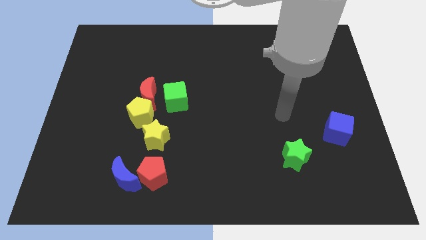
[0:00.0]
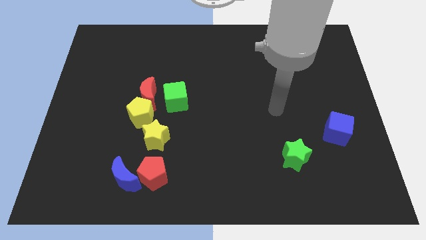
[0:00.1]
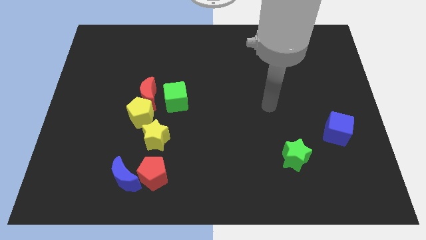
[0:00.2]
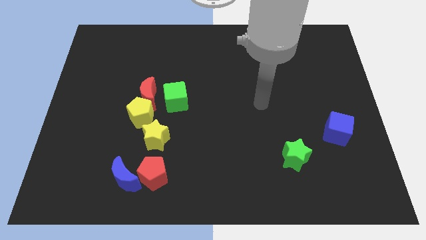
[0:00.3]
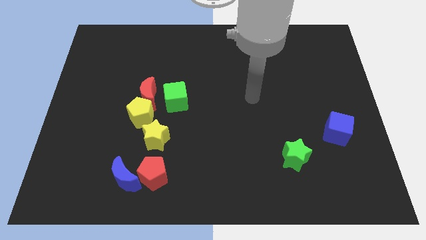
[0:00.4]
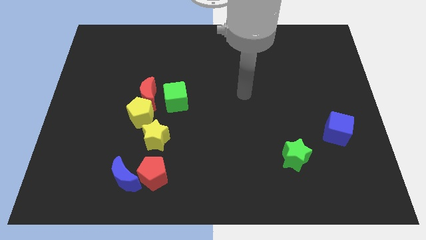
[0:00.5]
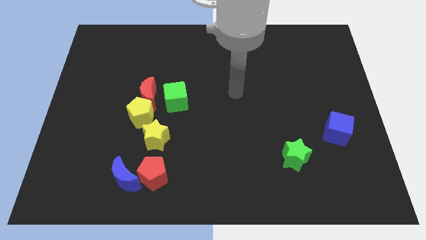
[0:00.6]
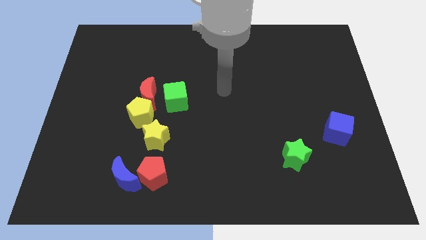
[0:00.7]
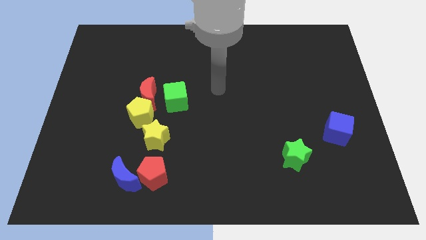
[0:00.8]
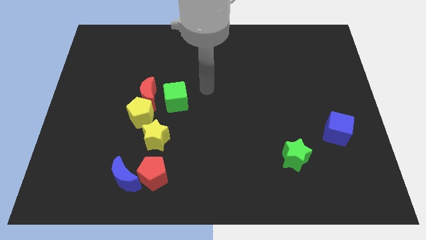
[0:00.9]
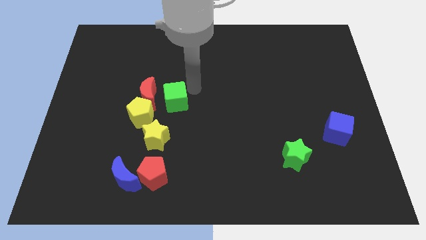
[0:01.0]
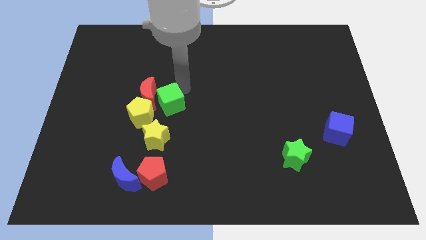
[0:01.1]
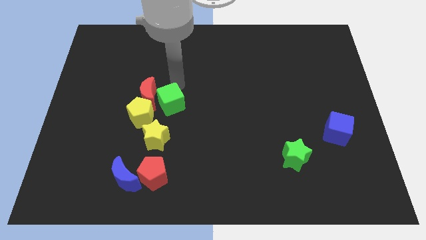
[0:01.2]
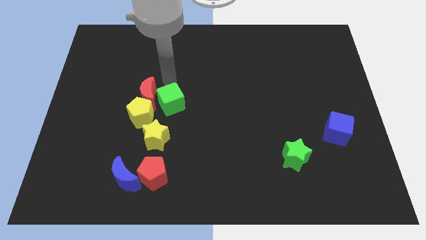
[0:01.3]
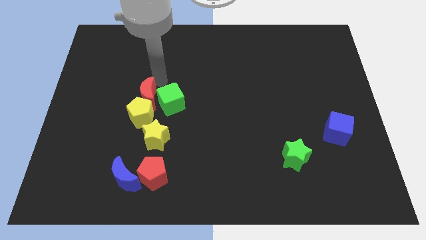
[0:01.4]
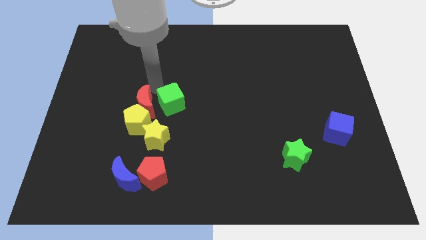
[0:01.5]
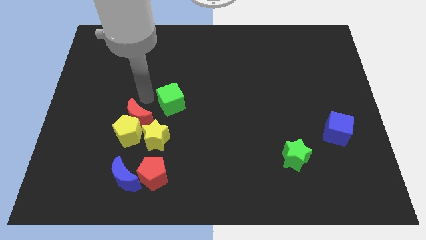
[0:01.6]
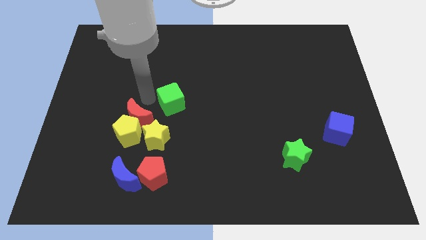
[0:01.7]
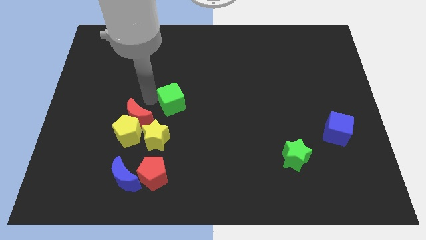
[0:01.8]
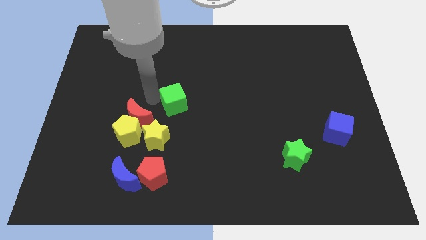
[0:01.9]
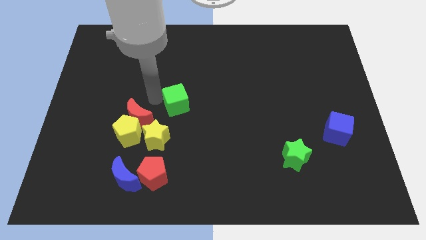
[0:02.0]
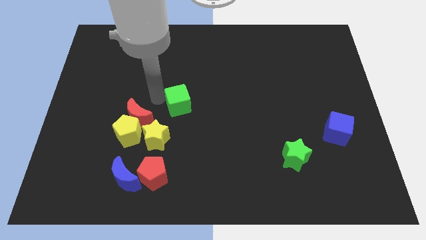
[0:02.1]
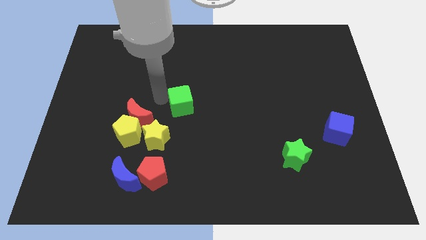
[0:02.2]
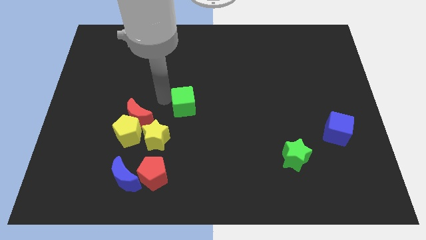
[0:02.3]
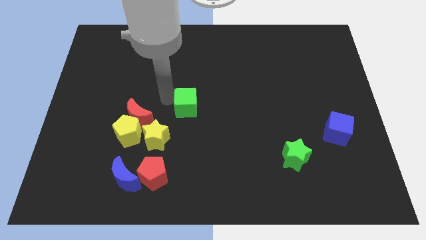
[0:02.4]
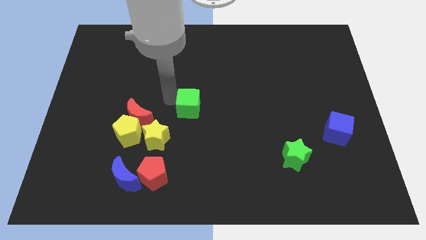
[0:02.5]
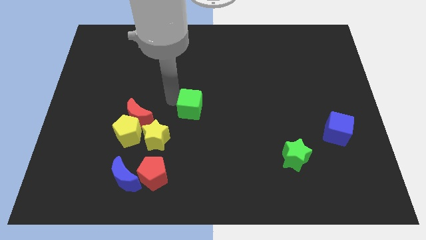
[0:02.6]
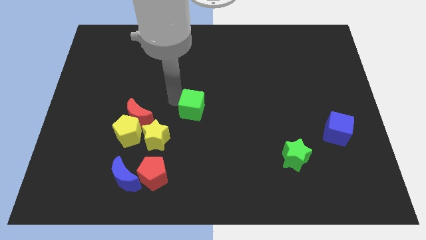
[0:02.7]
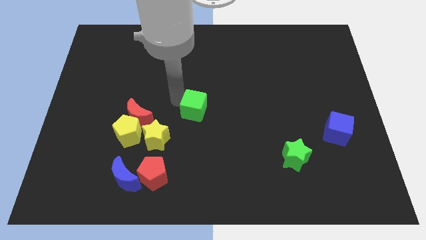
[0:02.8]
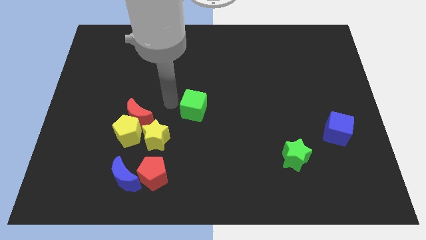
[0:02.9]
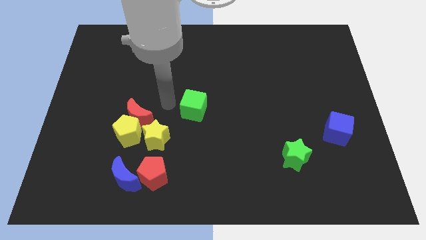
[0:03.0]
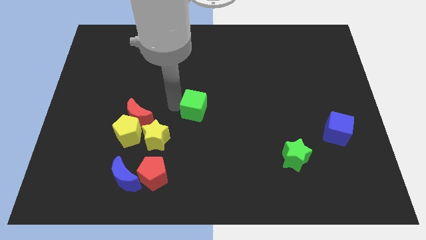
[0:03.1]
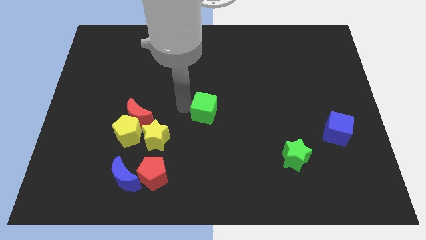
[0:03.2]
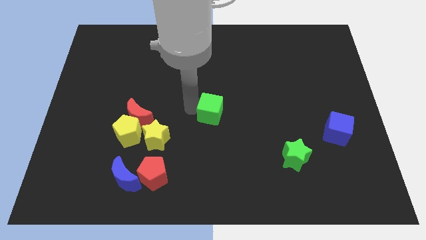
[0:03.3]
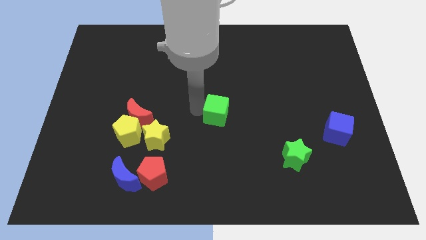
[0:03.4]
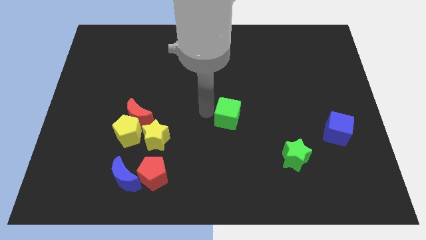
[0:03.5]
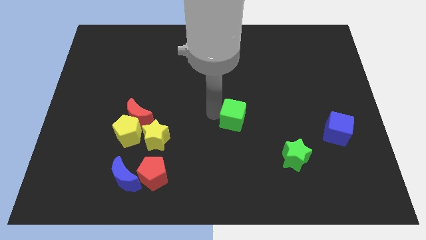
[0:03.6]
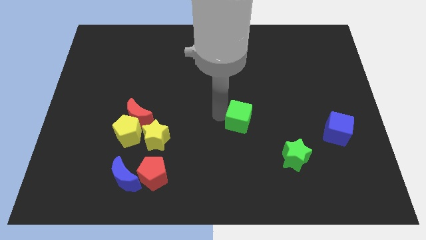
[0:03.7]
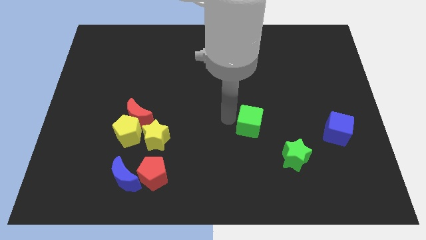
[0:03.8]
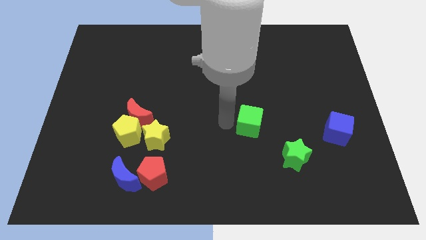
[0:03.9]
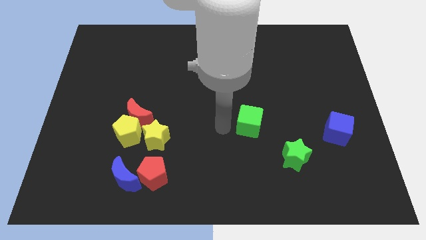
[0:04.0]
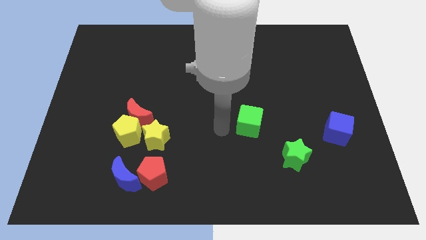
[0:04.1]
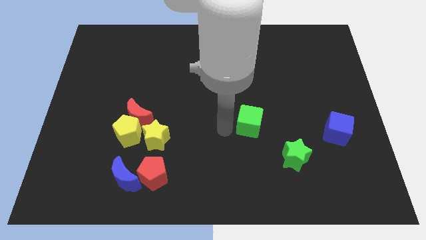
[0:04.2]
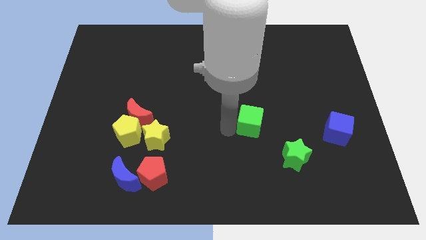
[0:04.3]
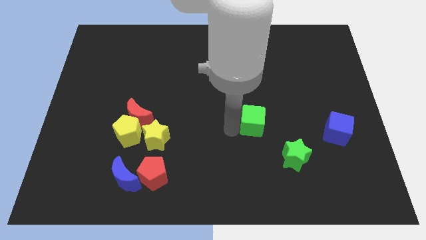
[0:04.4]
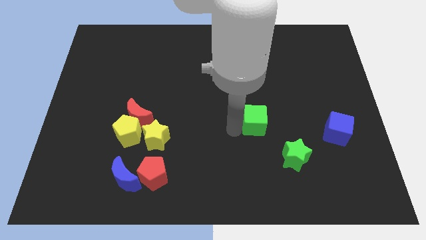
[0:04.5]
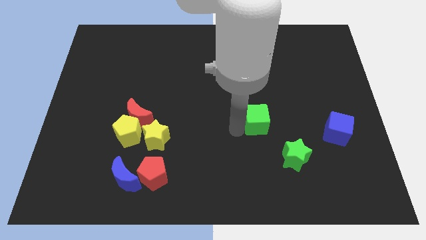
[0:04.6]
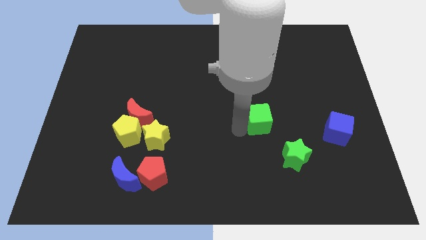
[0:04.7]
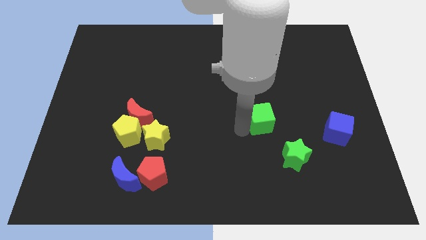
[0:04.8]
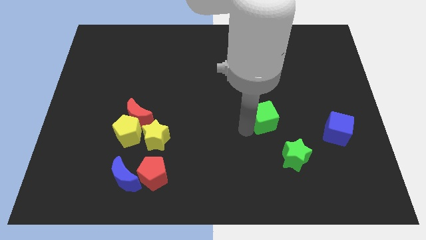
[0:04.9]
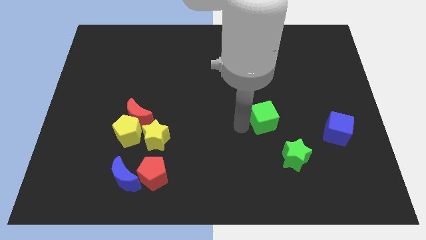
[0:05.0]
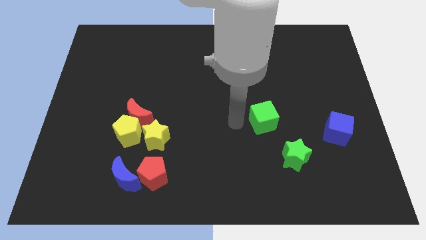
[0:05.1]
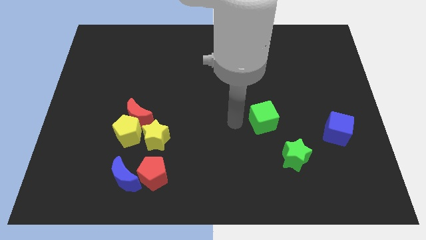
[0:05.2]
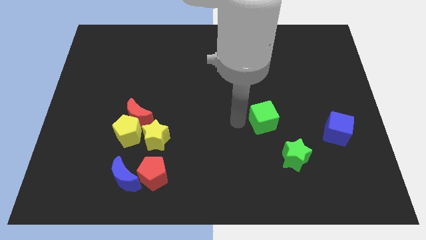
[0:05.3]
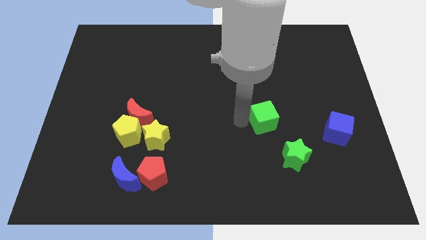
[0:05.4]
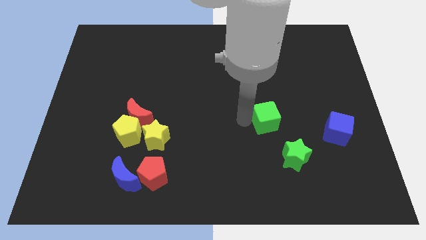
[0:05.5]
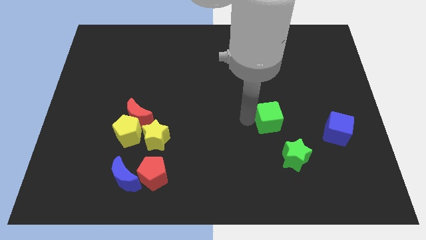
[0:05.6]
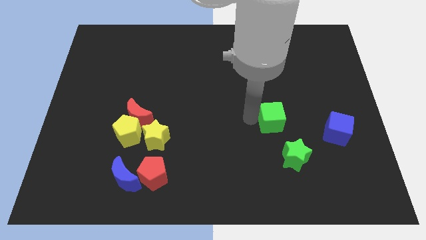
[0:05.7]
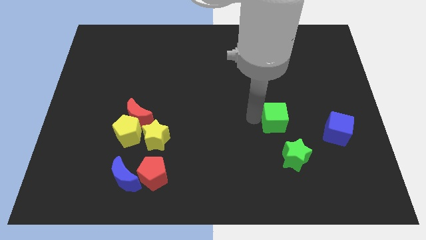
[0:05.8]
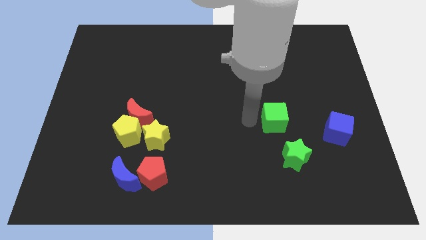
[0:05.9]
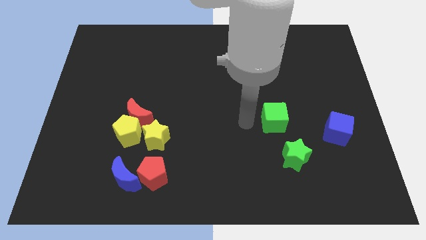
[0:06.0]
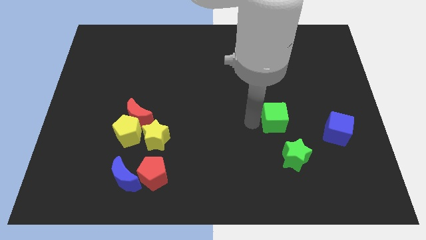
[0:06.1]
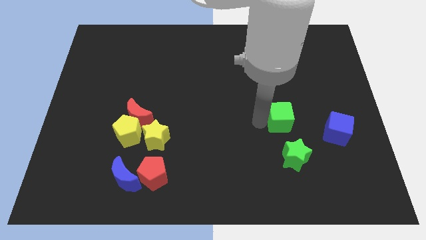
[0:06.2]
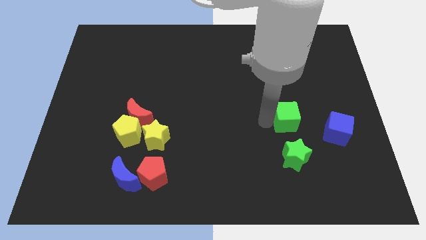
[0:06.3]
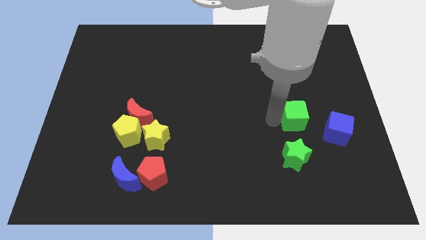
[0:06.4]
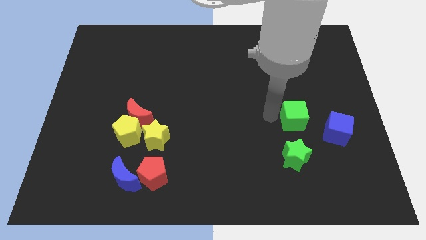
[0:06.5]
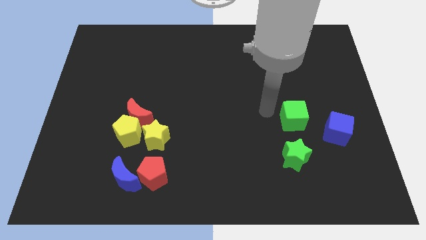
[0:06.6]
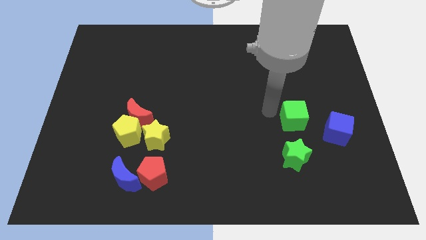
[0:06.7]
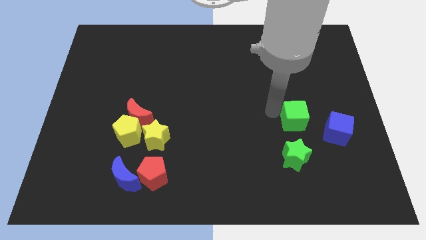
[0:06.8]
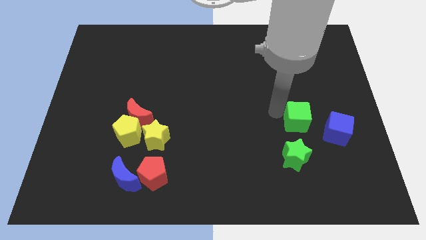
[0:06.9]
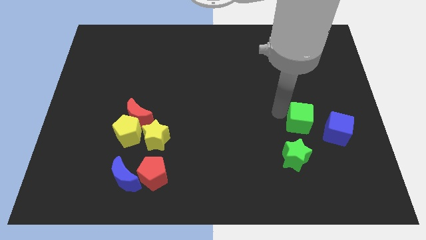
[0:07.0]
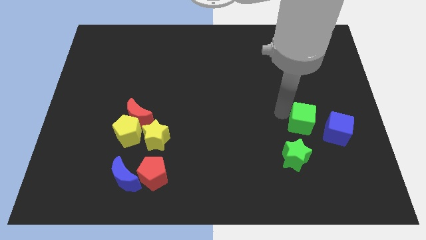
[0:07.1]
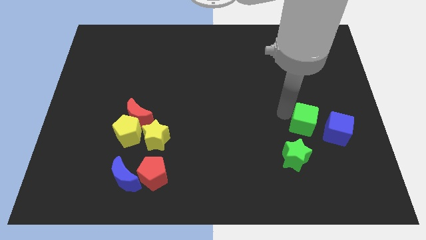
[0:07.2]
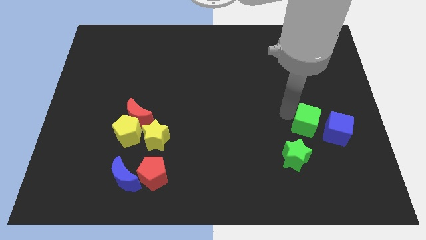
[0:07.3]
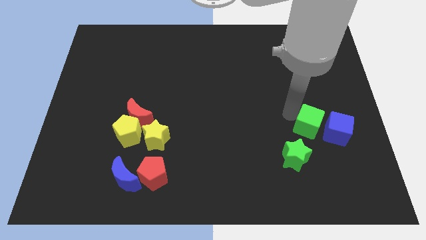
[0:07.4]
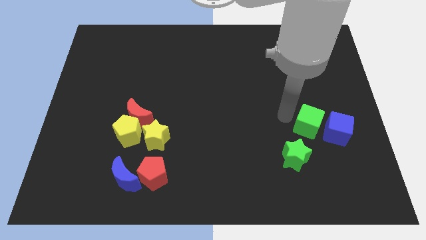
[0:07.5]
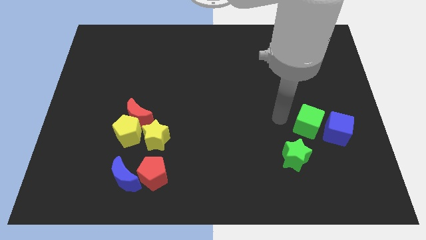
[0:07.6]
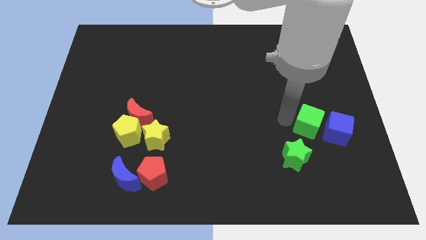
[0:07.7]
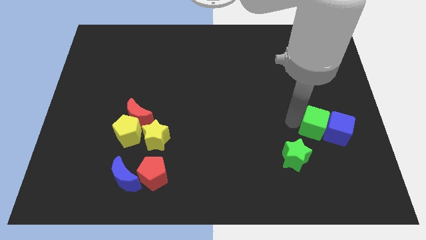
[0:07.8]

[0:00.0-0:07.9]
slide the green cube next to the blue cube
